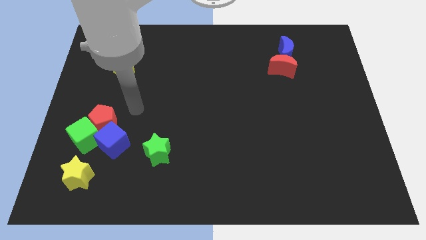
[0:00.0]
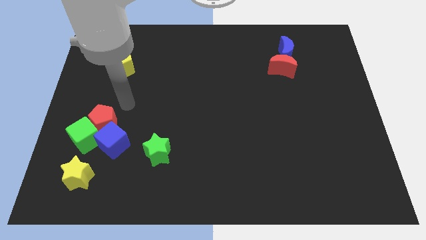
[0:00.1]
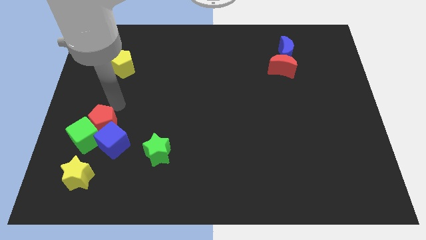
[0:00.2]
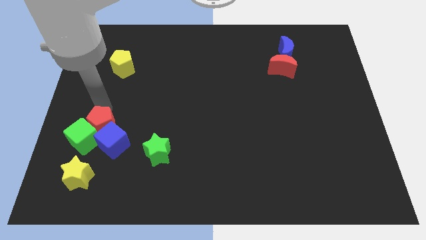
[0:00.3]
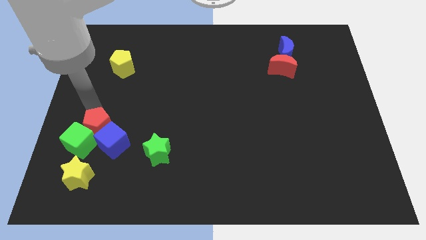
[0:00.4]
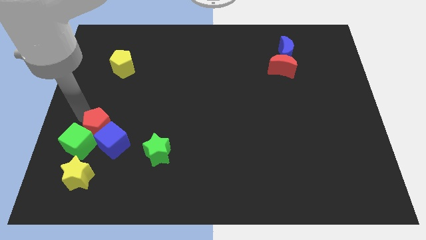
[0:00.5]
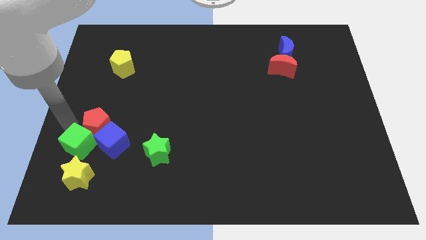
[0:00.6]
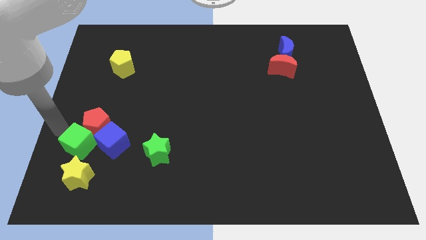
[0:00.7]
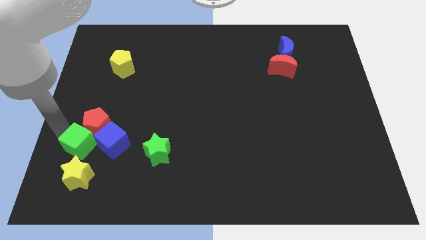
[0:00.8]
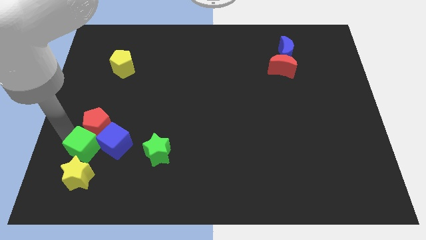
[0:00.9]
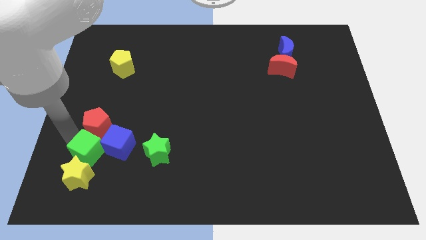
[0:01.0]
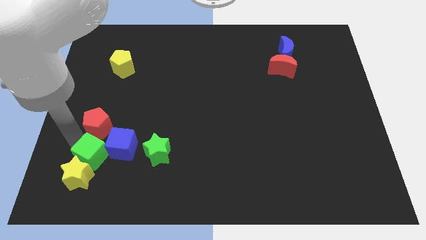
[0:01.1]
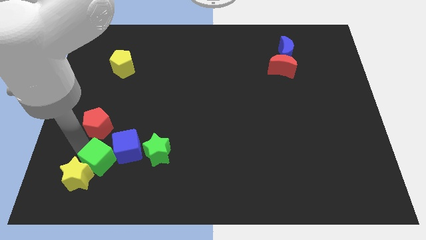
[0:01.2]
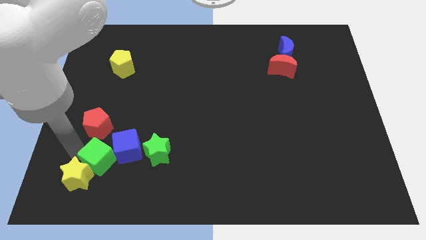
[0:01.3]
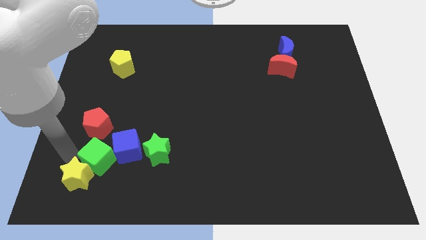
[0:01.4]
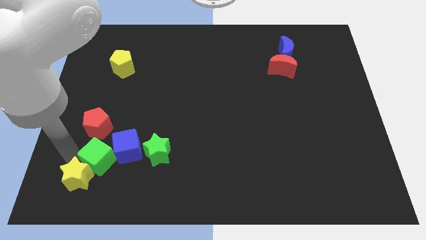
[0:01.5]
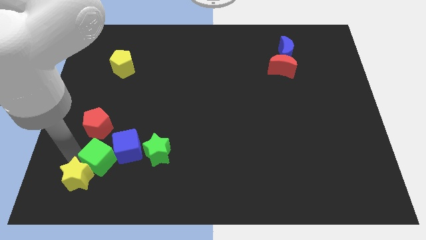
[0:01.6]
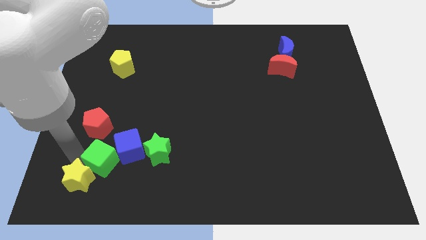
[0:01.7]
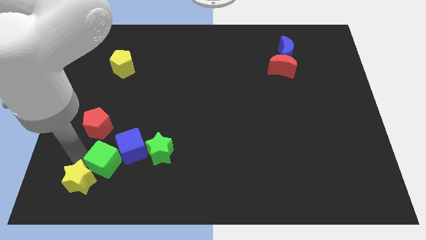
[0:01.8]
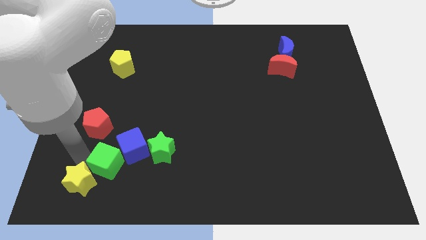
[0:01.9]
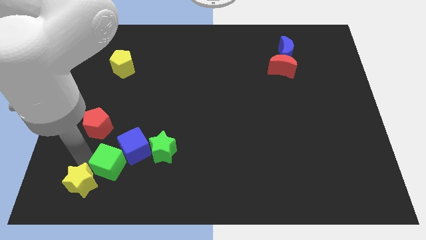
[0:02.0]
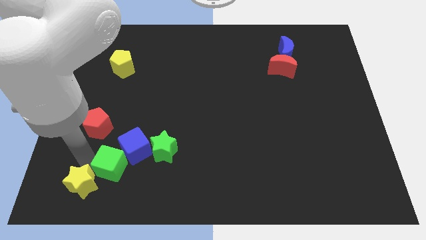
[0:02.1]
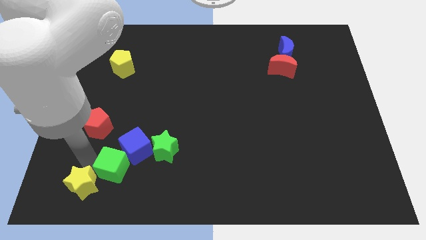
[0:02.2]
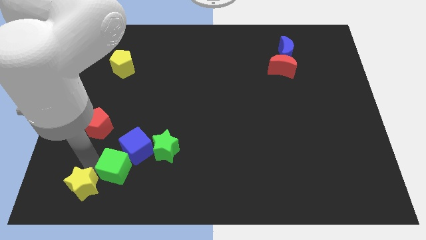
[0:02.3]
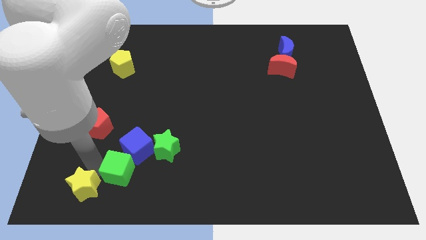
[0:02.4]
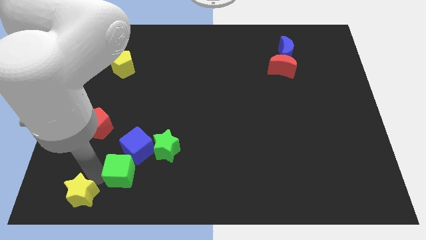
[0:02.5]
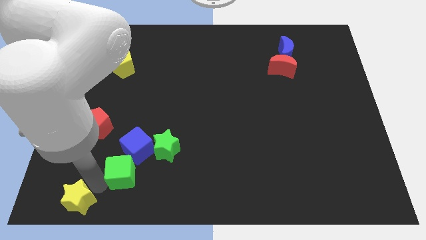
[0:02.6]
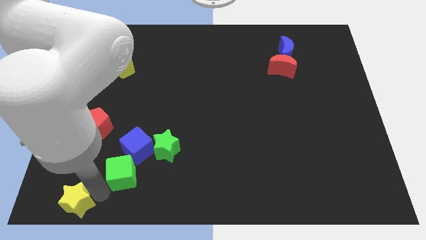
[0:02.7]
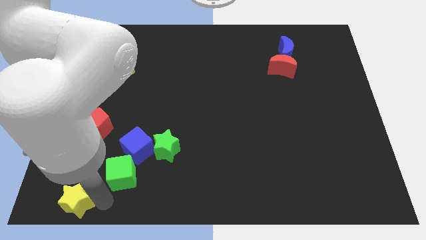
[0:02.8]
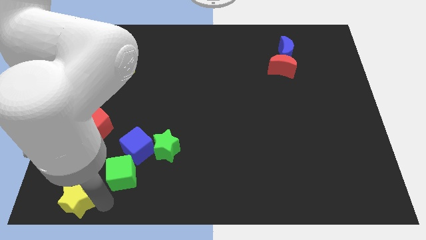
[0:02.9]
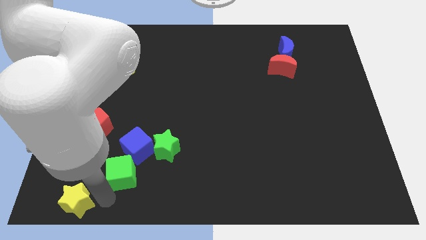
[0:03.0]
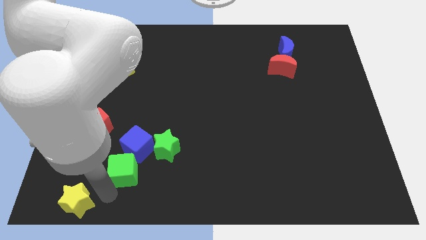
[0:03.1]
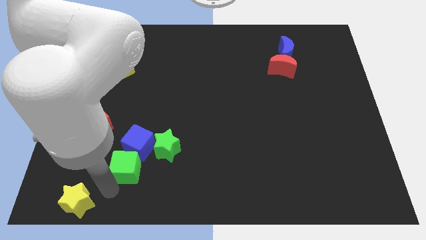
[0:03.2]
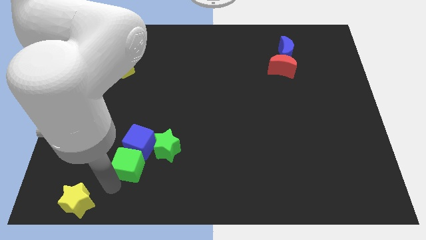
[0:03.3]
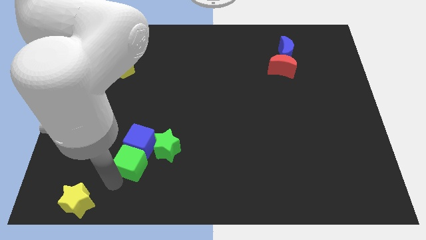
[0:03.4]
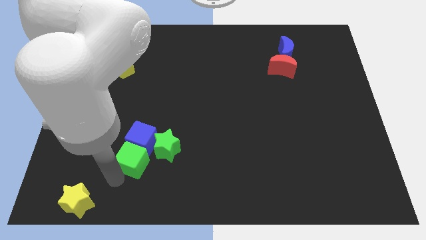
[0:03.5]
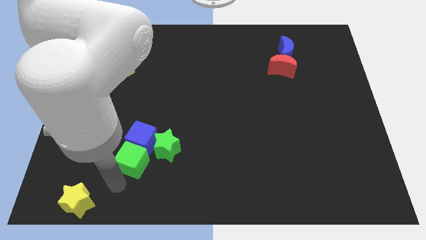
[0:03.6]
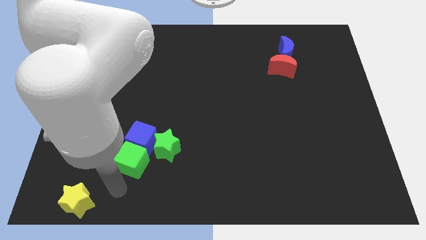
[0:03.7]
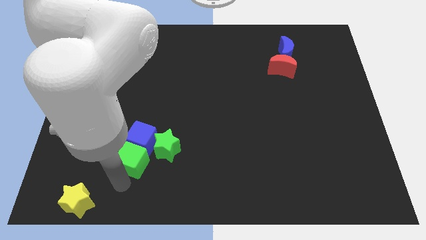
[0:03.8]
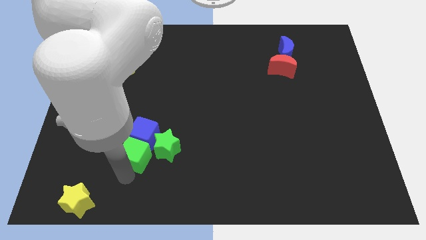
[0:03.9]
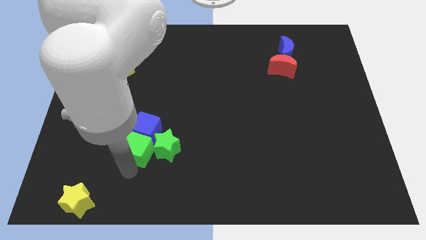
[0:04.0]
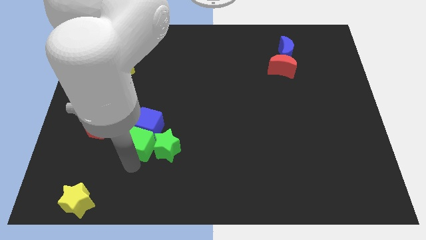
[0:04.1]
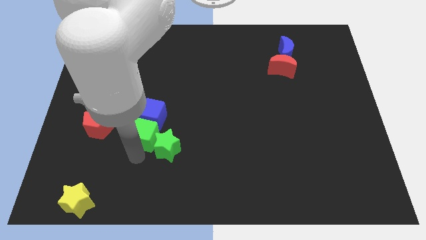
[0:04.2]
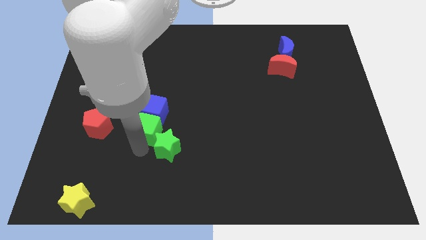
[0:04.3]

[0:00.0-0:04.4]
move the green cube a bit upwards and right

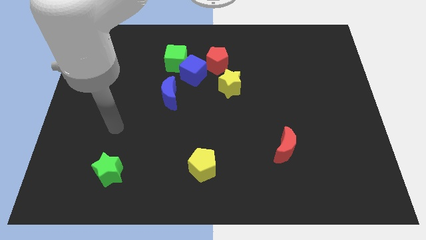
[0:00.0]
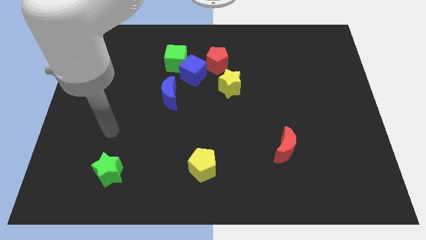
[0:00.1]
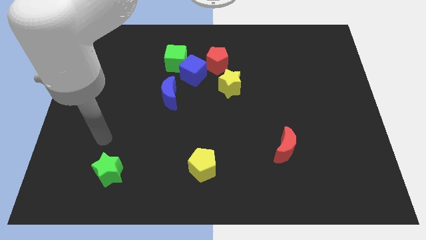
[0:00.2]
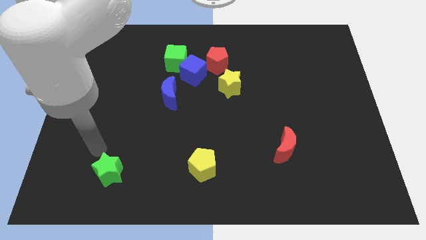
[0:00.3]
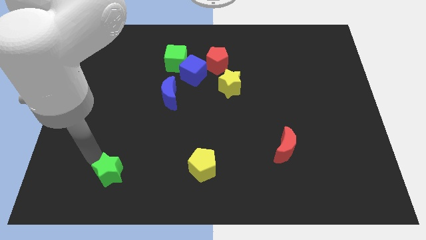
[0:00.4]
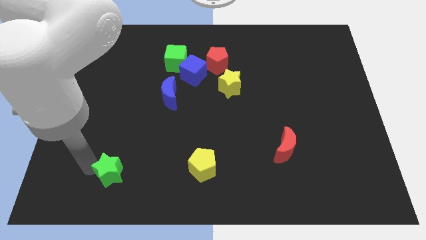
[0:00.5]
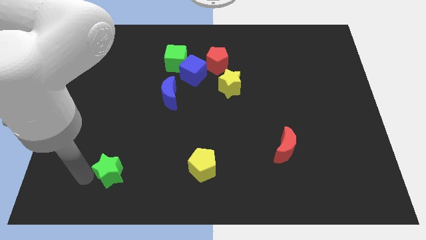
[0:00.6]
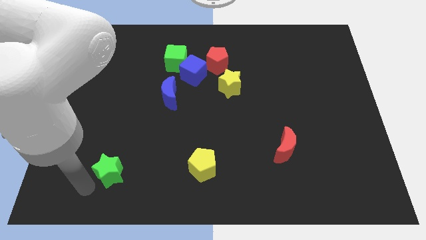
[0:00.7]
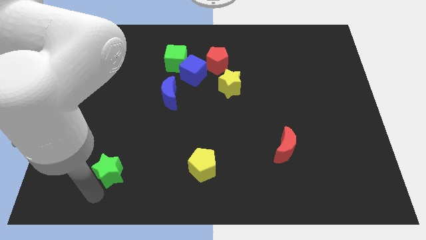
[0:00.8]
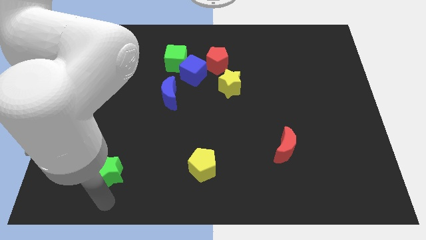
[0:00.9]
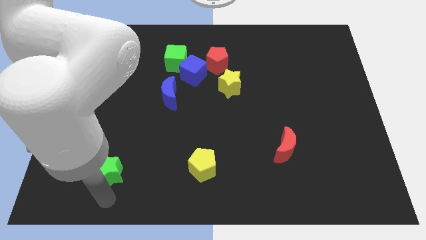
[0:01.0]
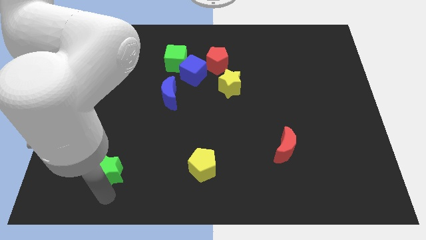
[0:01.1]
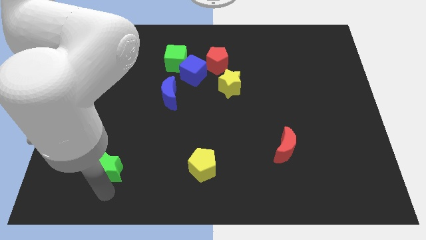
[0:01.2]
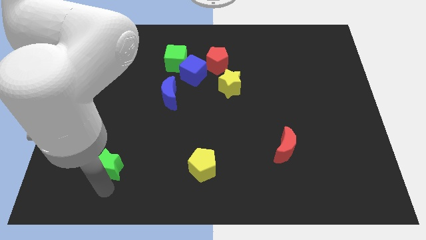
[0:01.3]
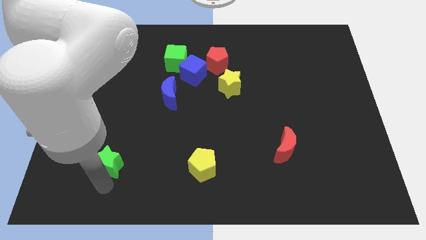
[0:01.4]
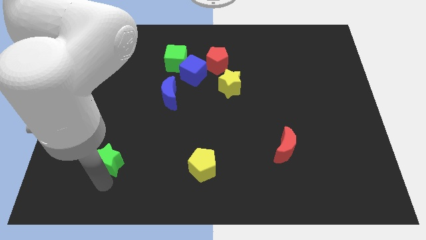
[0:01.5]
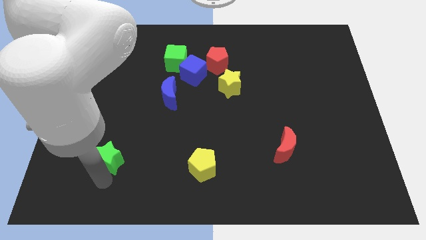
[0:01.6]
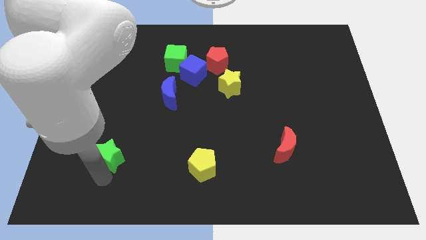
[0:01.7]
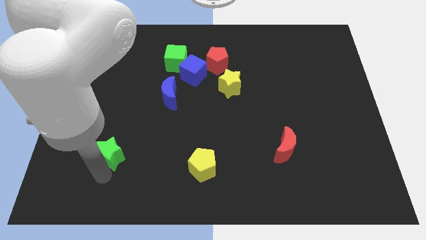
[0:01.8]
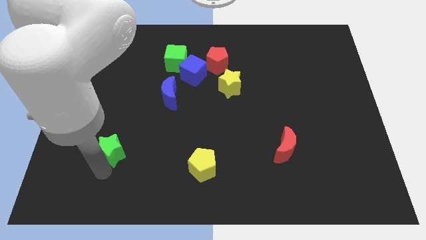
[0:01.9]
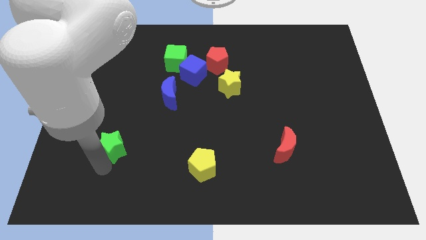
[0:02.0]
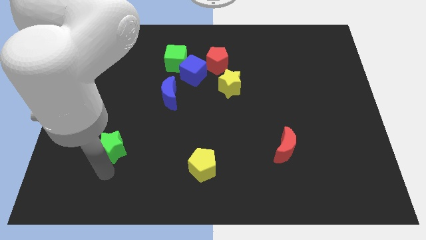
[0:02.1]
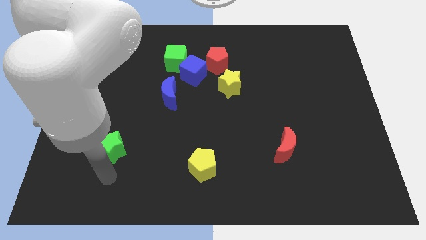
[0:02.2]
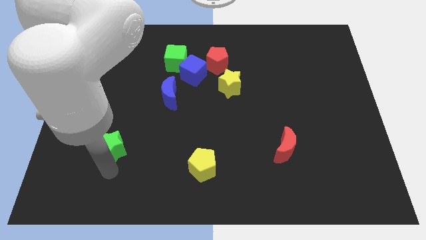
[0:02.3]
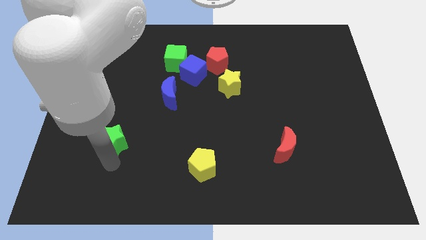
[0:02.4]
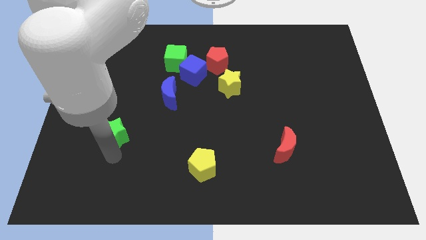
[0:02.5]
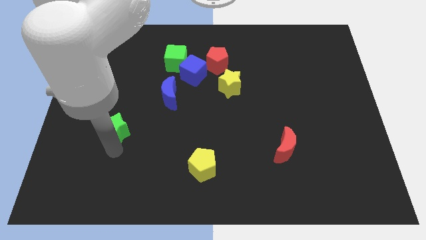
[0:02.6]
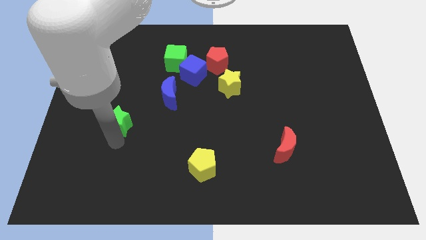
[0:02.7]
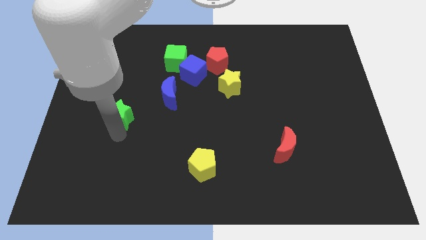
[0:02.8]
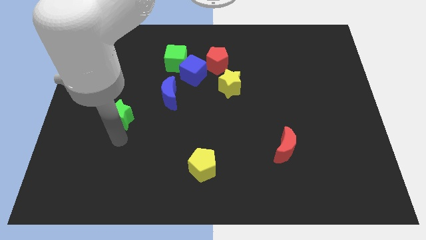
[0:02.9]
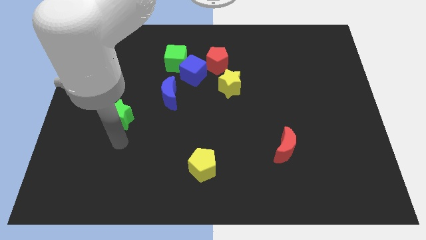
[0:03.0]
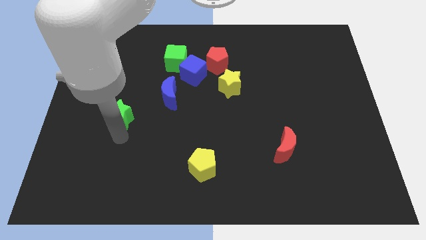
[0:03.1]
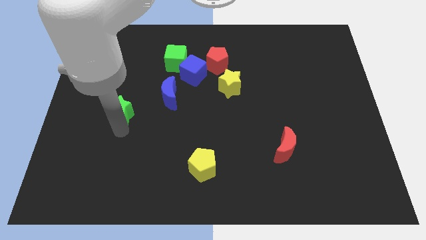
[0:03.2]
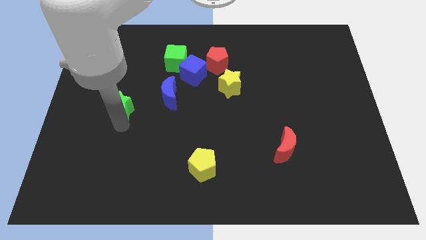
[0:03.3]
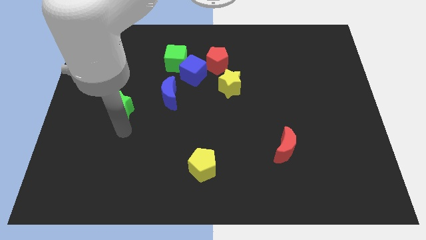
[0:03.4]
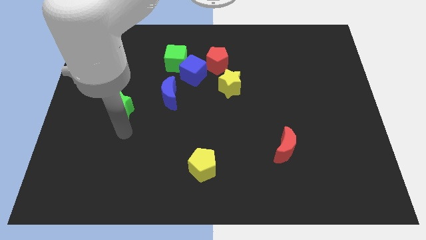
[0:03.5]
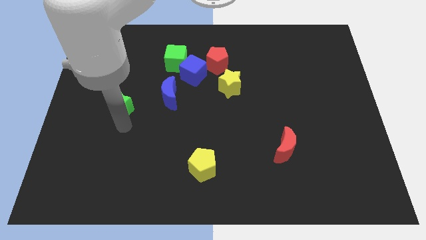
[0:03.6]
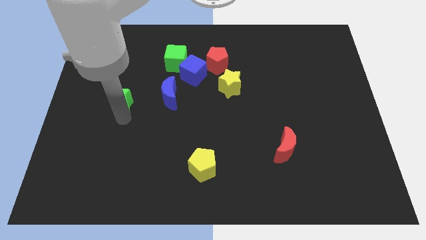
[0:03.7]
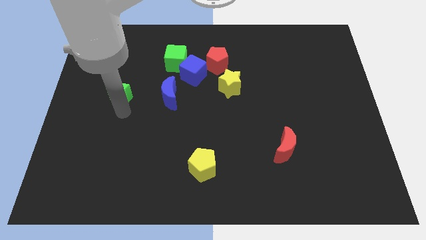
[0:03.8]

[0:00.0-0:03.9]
push the green star upwards
